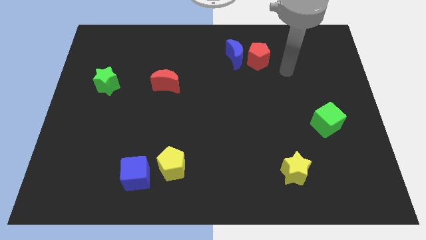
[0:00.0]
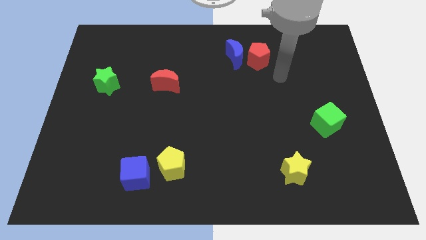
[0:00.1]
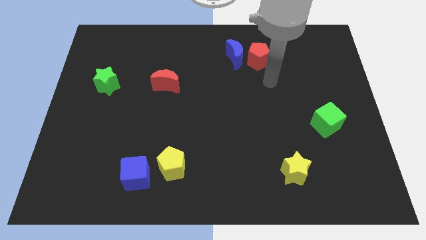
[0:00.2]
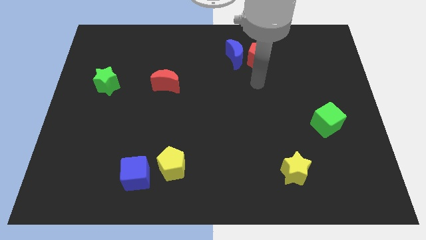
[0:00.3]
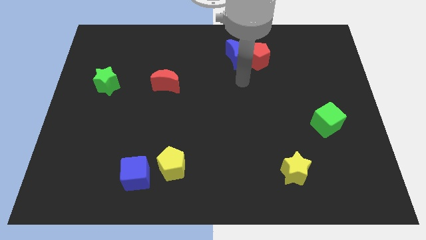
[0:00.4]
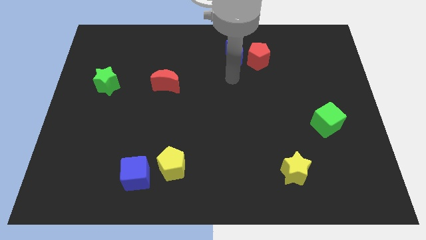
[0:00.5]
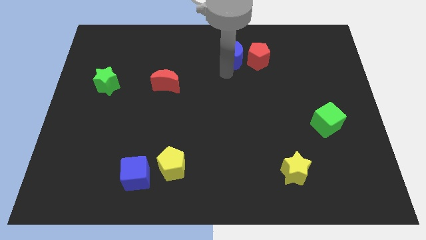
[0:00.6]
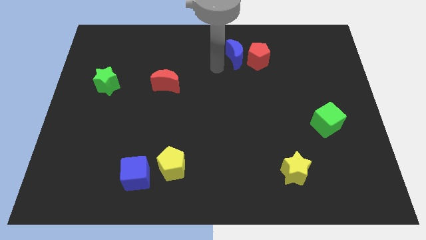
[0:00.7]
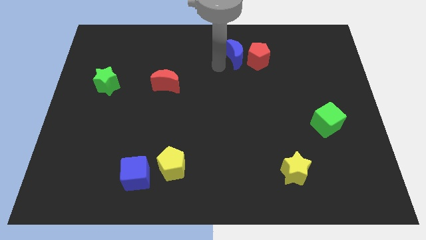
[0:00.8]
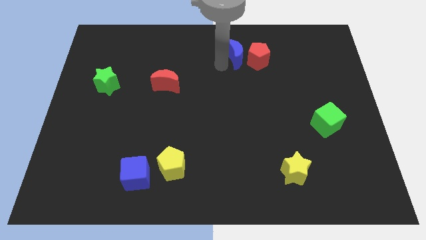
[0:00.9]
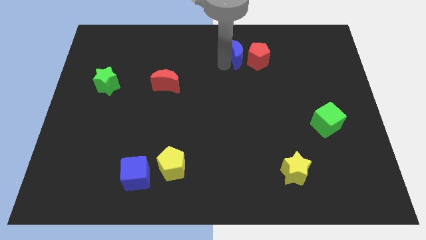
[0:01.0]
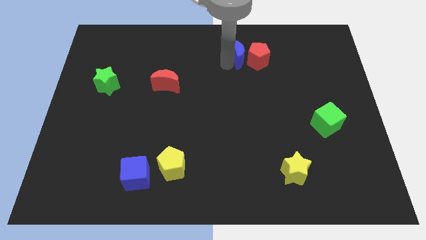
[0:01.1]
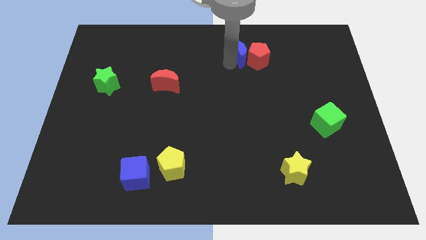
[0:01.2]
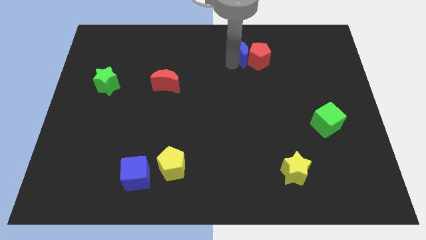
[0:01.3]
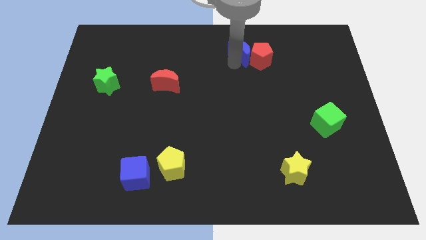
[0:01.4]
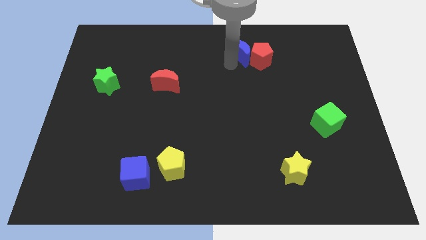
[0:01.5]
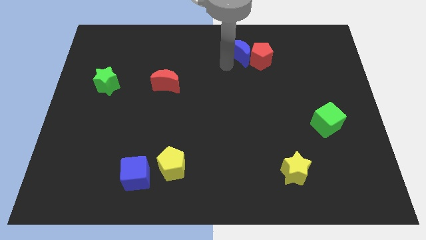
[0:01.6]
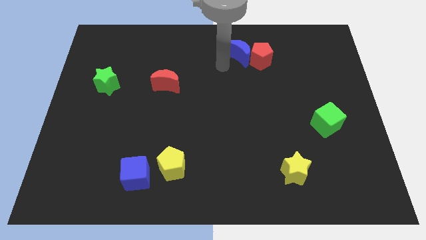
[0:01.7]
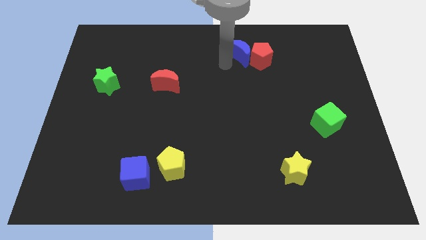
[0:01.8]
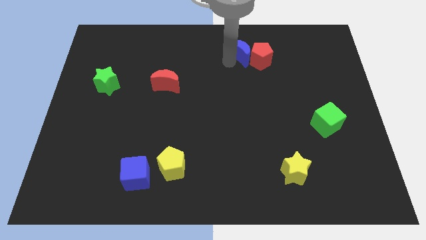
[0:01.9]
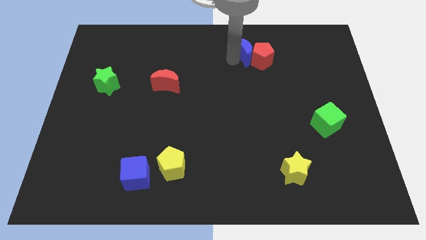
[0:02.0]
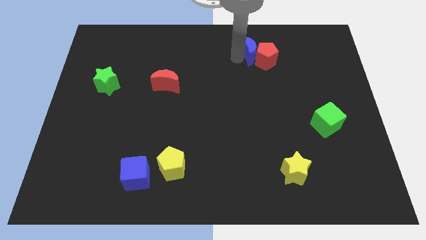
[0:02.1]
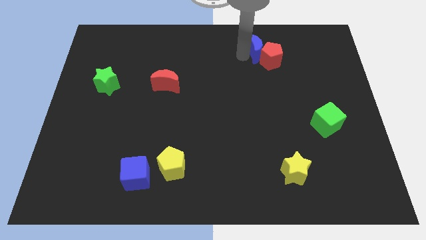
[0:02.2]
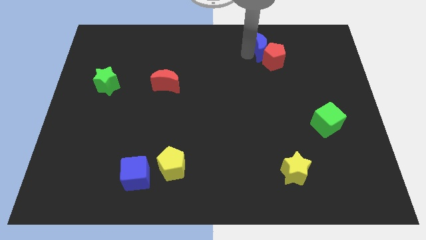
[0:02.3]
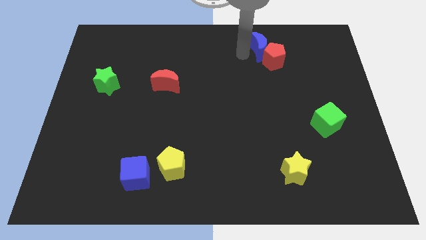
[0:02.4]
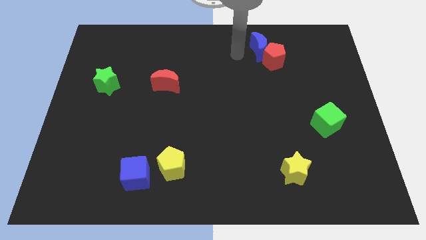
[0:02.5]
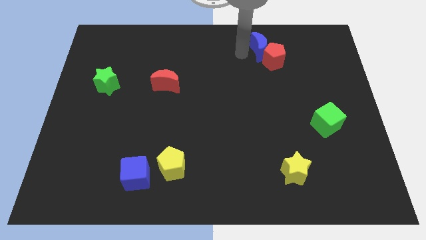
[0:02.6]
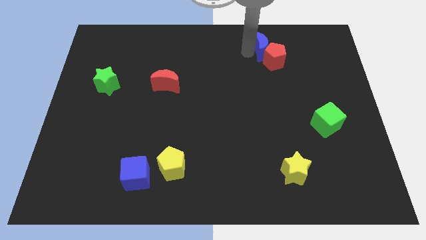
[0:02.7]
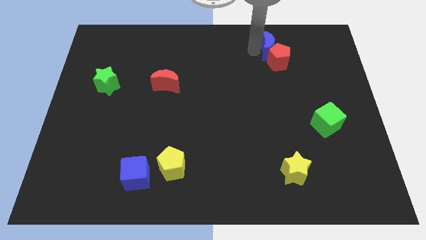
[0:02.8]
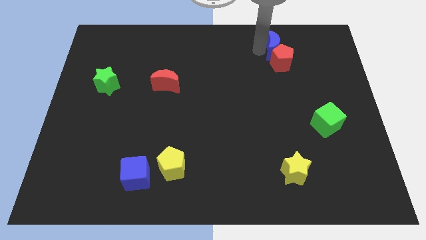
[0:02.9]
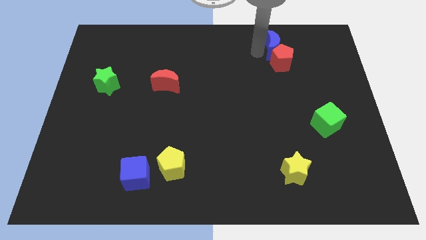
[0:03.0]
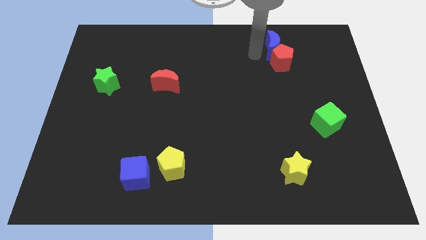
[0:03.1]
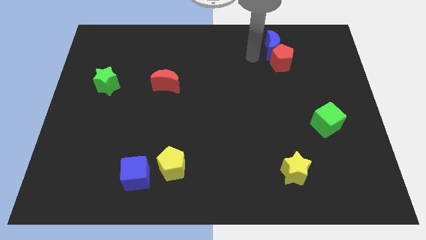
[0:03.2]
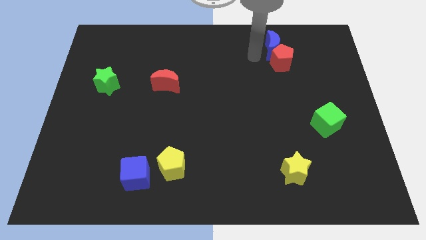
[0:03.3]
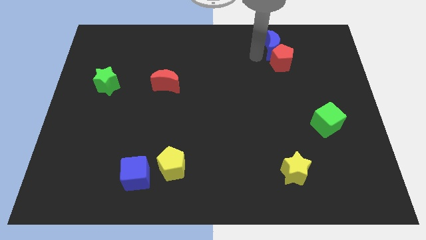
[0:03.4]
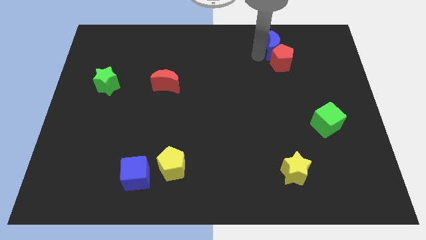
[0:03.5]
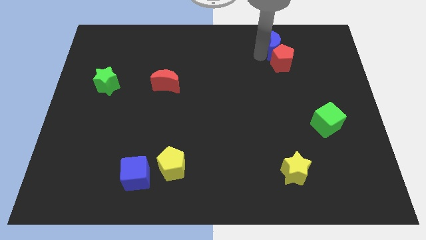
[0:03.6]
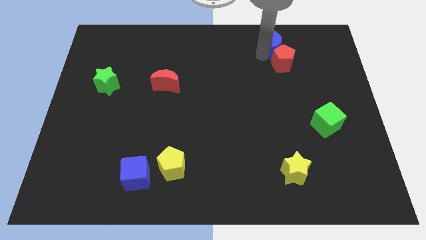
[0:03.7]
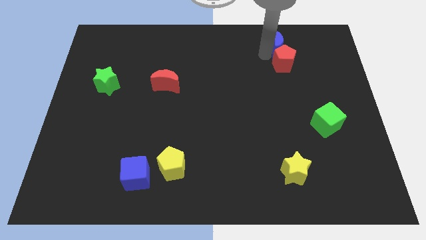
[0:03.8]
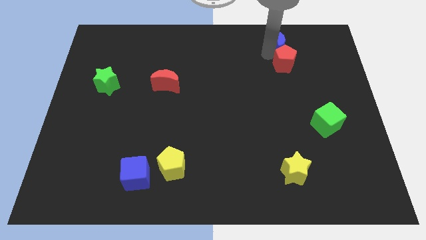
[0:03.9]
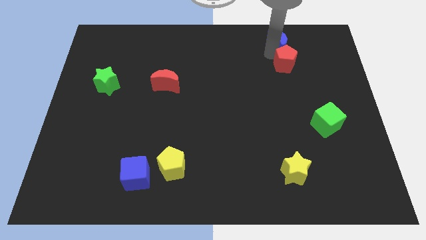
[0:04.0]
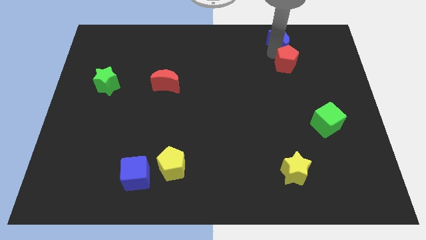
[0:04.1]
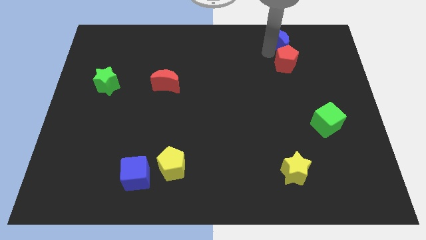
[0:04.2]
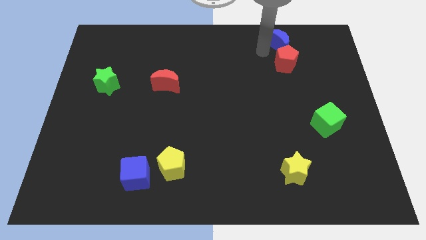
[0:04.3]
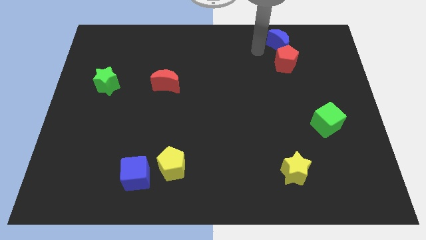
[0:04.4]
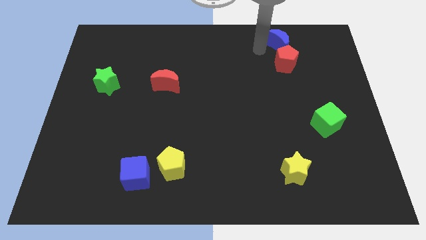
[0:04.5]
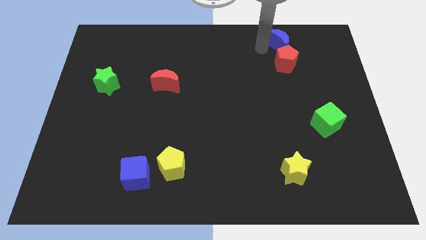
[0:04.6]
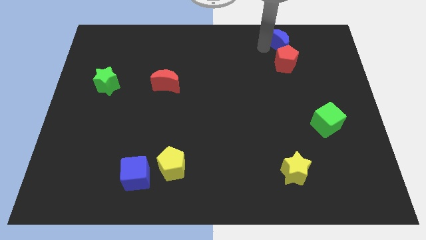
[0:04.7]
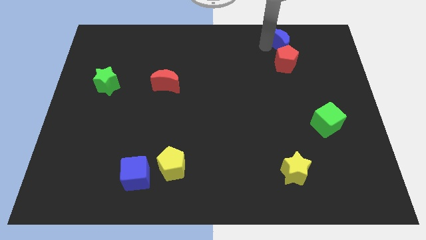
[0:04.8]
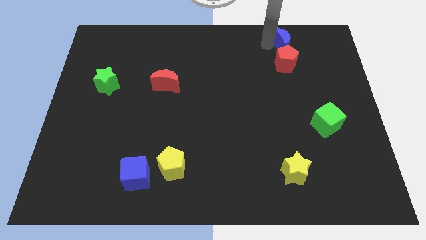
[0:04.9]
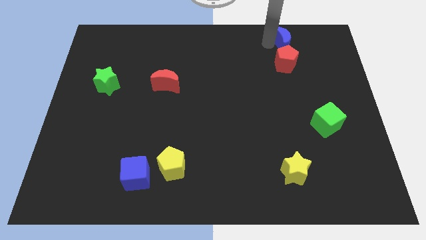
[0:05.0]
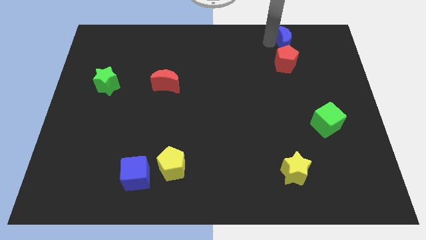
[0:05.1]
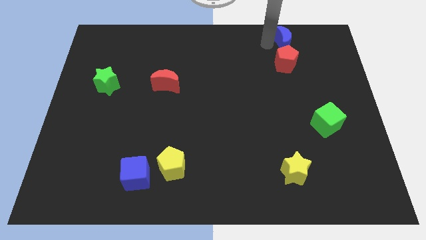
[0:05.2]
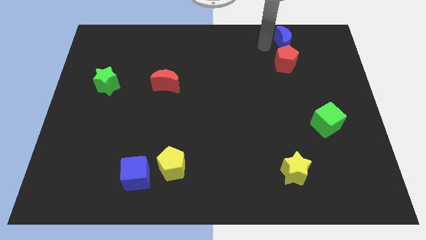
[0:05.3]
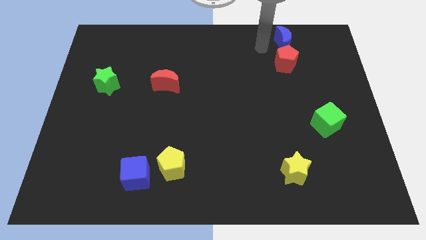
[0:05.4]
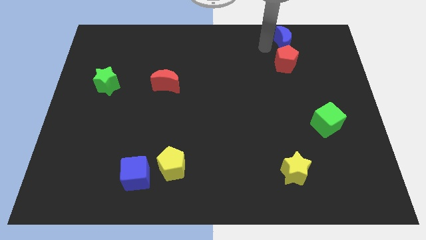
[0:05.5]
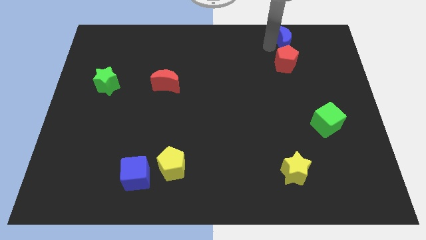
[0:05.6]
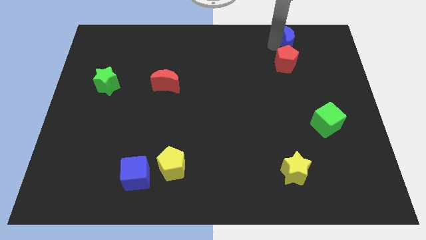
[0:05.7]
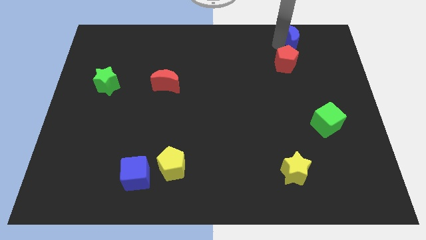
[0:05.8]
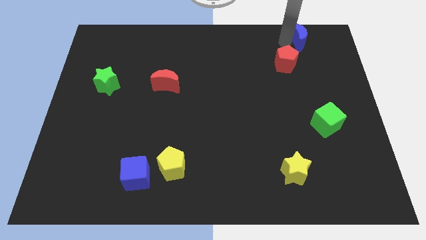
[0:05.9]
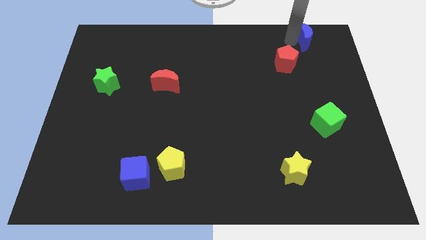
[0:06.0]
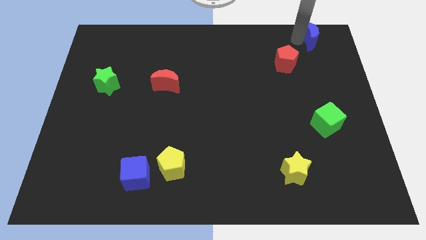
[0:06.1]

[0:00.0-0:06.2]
slide the blue moon to the top right of the board
